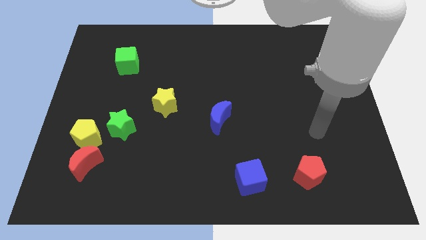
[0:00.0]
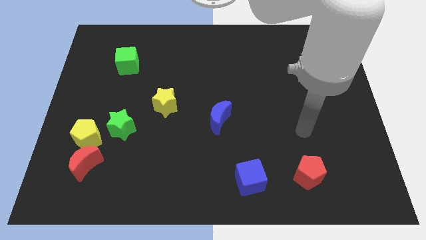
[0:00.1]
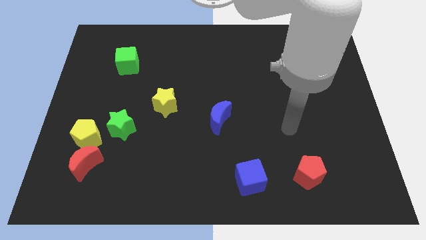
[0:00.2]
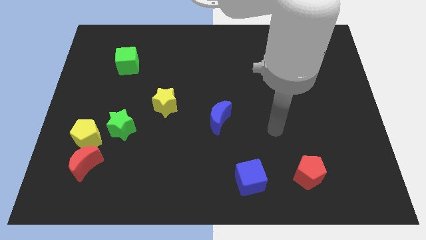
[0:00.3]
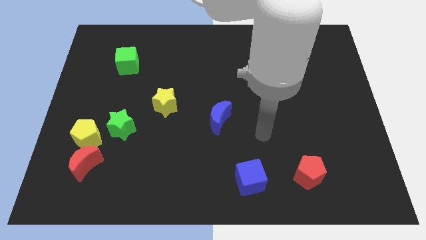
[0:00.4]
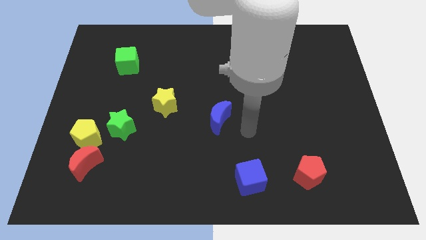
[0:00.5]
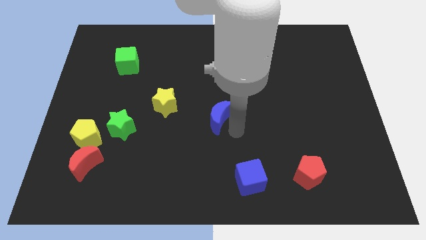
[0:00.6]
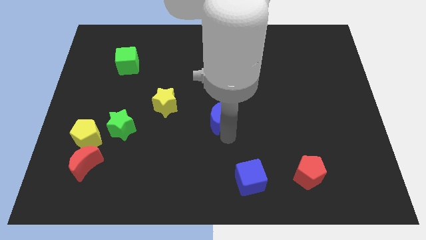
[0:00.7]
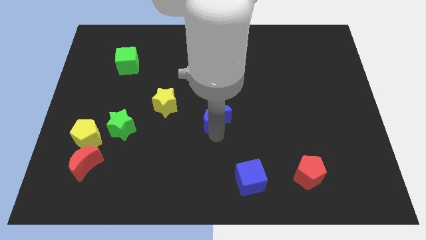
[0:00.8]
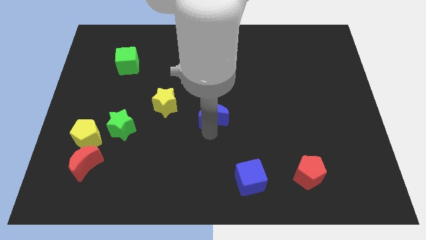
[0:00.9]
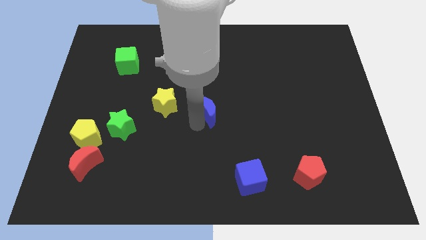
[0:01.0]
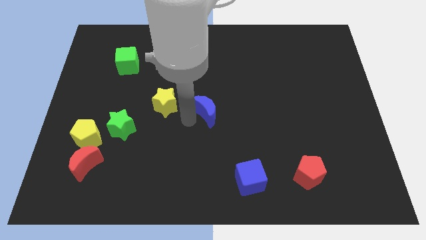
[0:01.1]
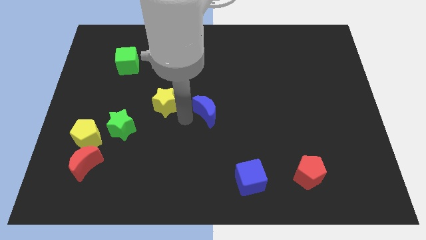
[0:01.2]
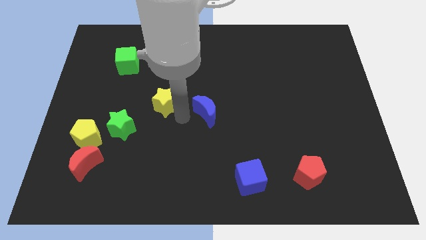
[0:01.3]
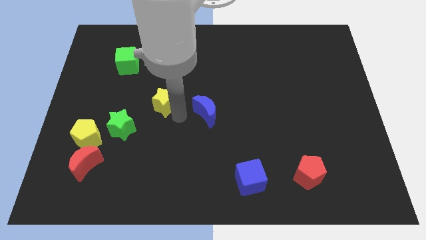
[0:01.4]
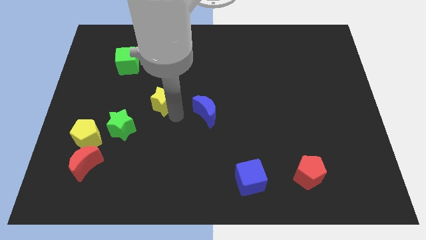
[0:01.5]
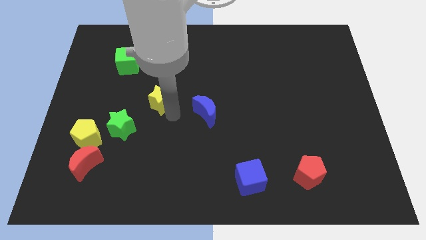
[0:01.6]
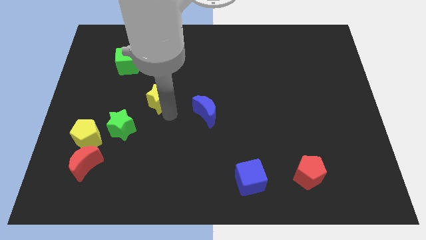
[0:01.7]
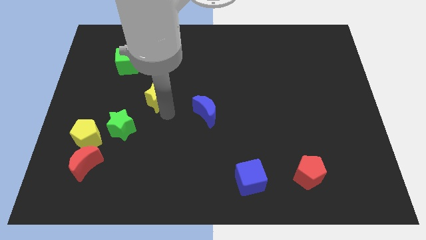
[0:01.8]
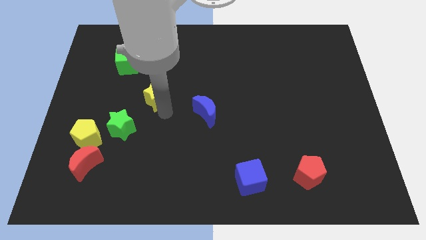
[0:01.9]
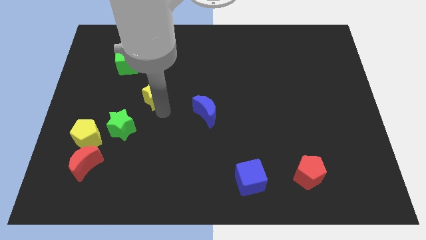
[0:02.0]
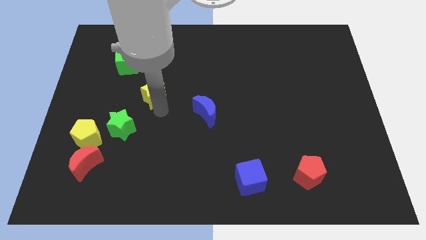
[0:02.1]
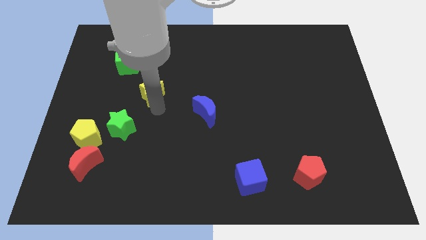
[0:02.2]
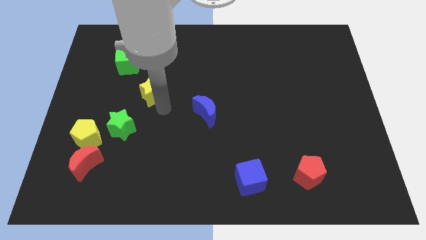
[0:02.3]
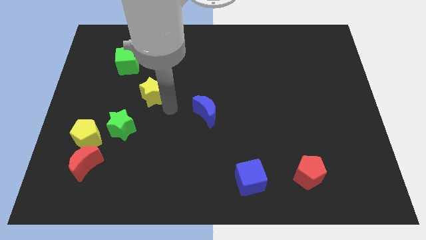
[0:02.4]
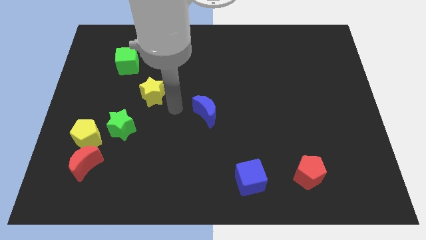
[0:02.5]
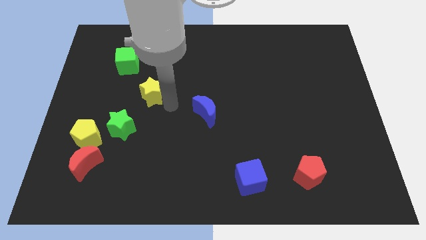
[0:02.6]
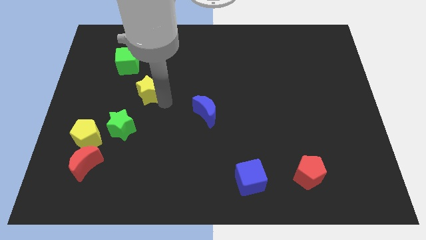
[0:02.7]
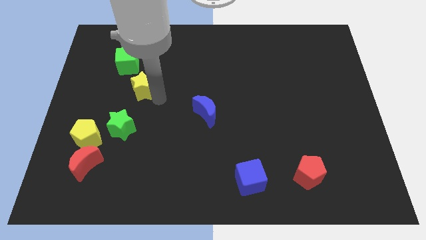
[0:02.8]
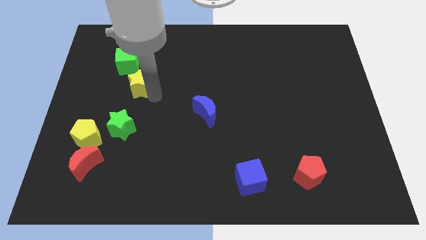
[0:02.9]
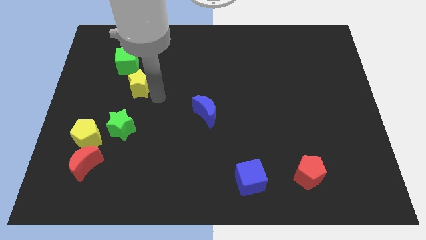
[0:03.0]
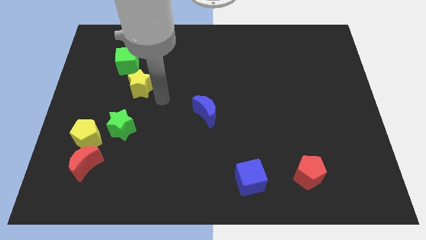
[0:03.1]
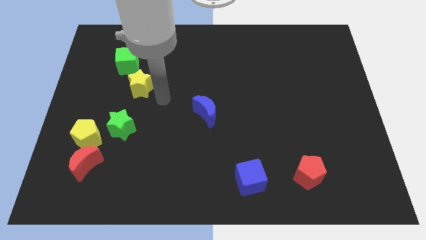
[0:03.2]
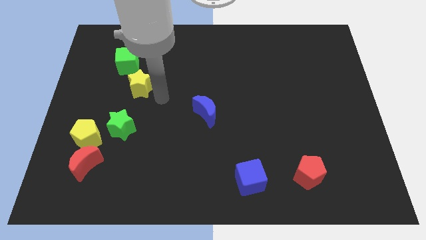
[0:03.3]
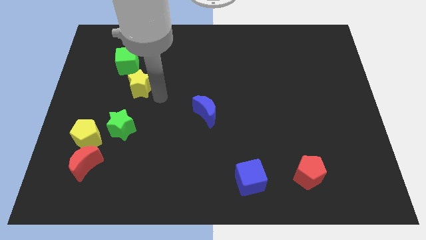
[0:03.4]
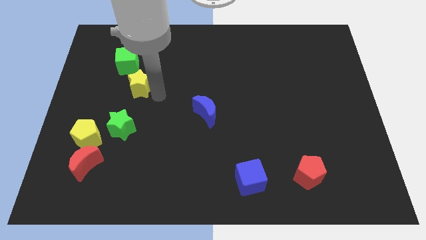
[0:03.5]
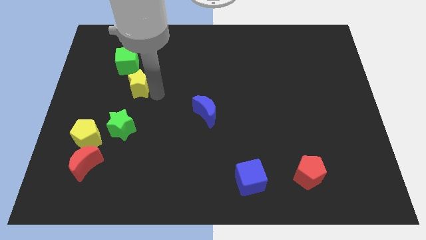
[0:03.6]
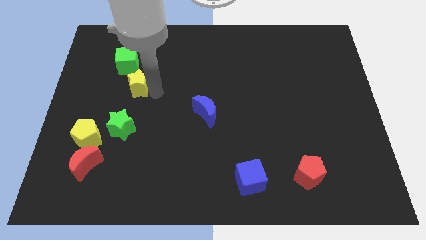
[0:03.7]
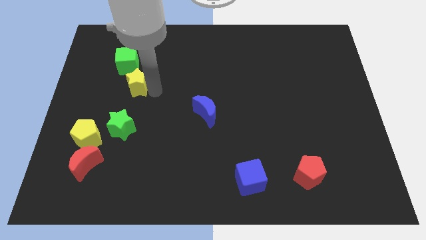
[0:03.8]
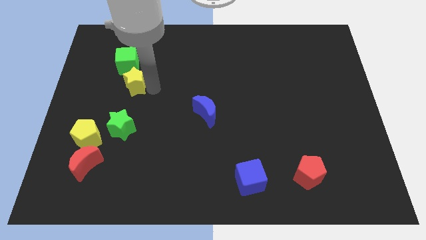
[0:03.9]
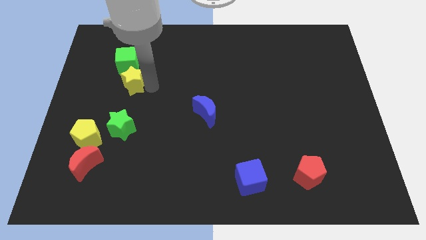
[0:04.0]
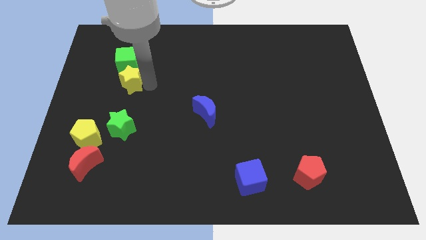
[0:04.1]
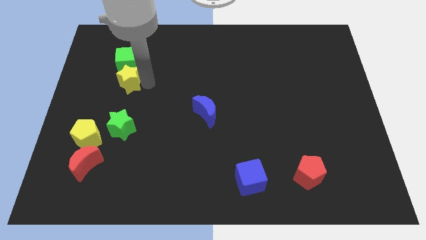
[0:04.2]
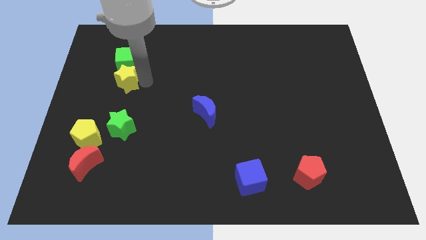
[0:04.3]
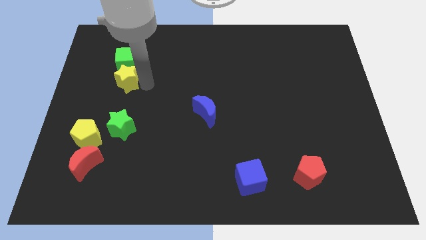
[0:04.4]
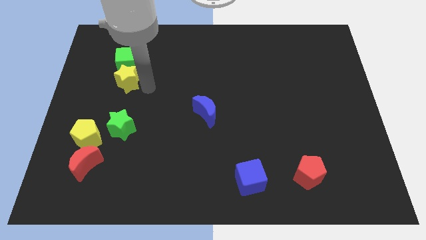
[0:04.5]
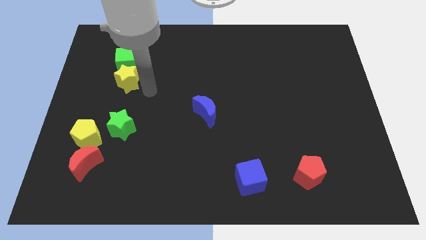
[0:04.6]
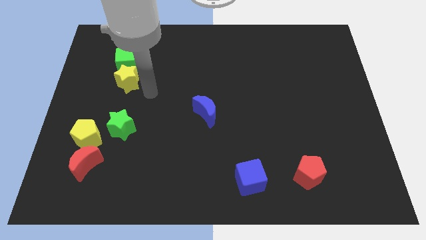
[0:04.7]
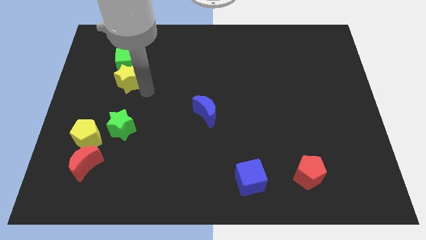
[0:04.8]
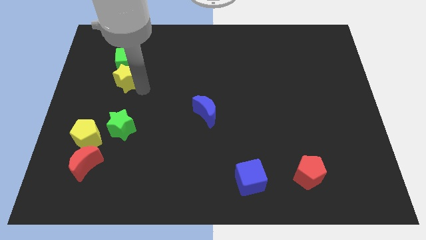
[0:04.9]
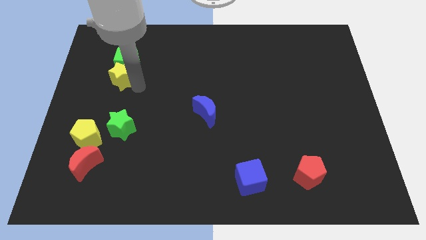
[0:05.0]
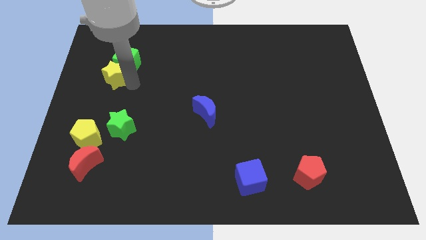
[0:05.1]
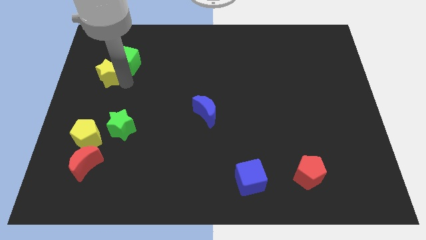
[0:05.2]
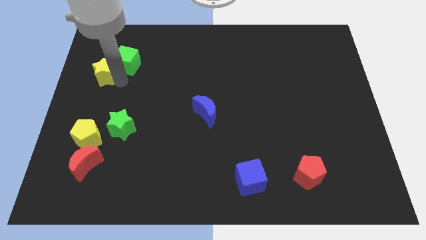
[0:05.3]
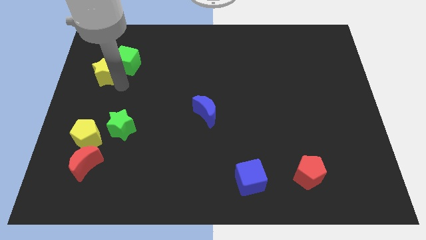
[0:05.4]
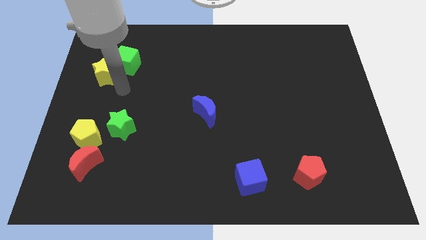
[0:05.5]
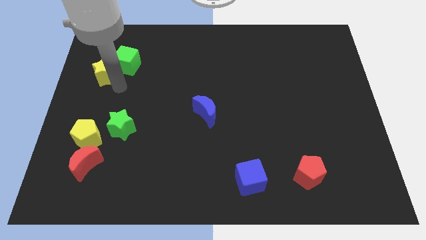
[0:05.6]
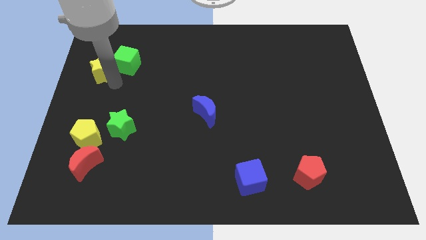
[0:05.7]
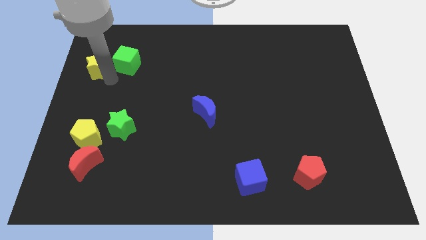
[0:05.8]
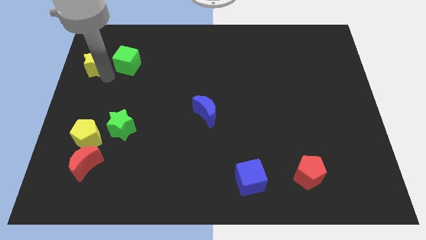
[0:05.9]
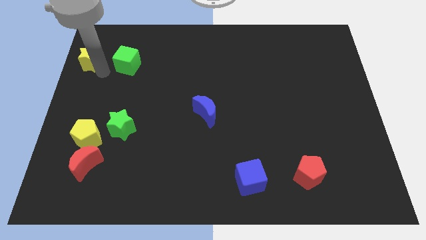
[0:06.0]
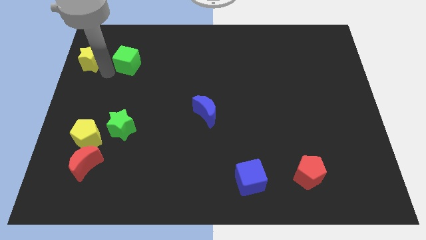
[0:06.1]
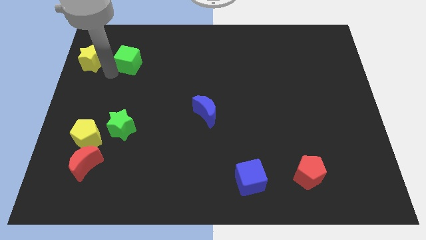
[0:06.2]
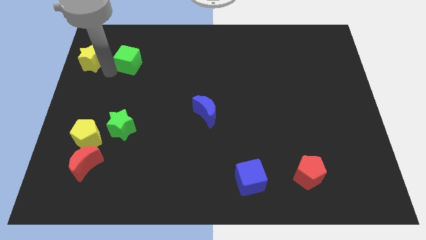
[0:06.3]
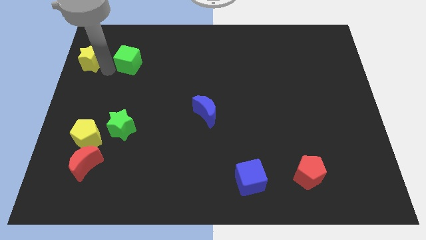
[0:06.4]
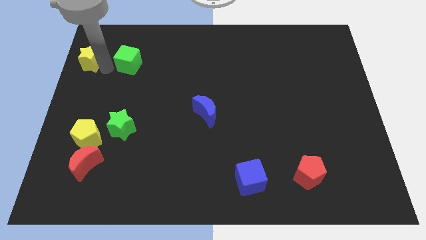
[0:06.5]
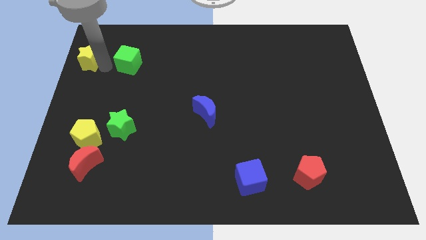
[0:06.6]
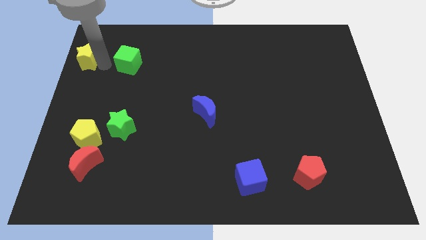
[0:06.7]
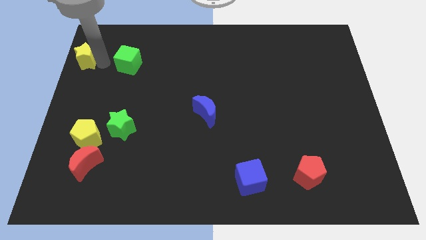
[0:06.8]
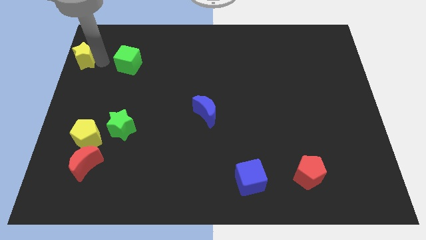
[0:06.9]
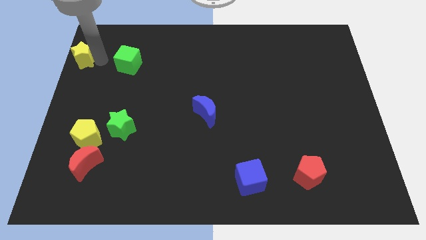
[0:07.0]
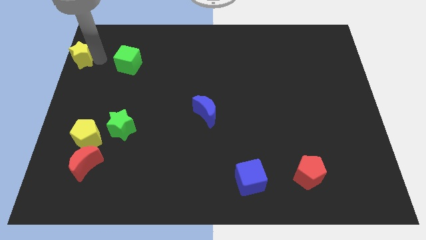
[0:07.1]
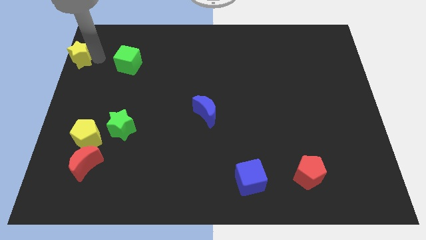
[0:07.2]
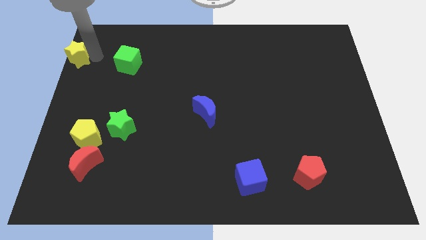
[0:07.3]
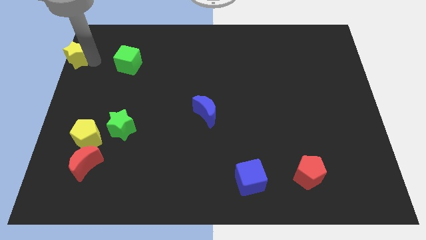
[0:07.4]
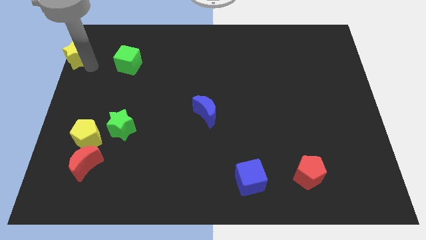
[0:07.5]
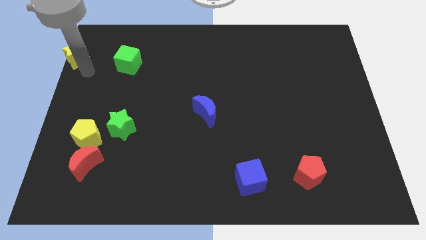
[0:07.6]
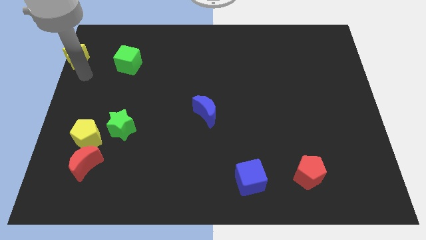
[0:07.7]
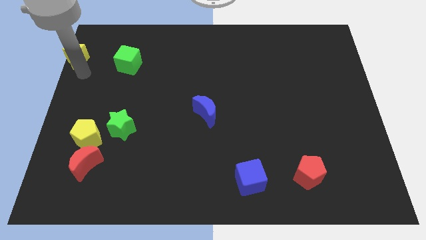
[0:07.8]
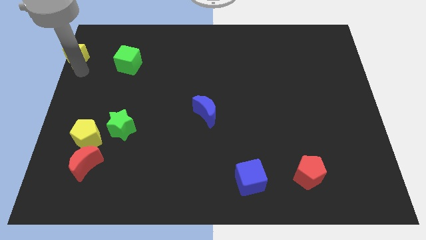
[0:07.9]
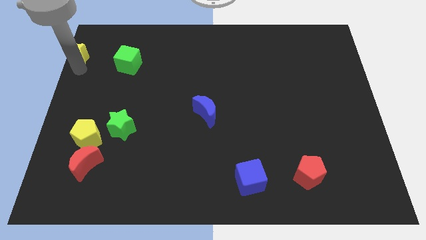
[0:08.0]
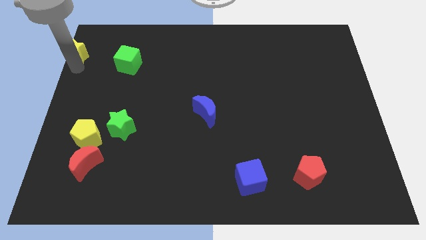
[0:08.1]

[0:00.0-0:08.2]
move the yellow star to the top left of the board

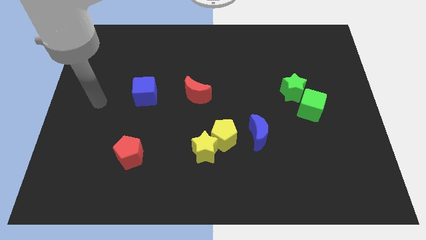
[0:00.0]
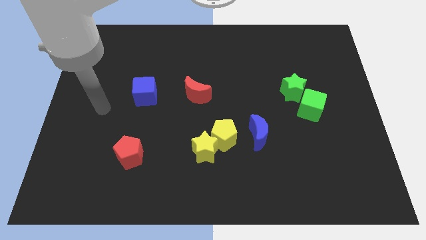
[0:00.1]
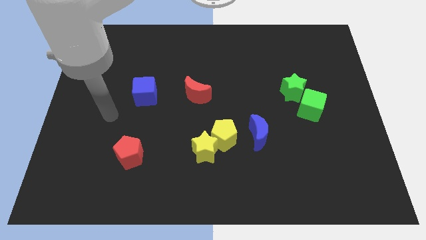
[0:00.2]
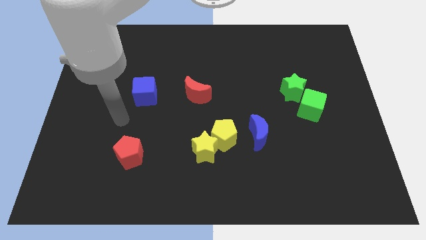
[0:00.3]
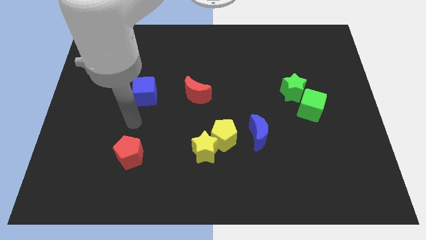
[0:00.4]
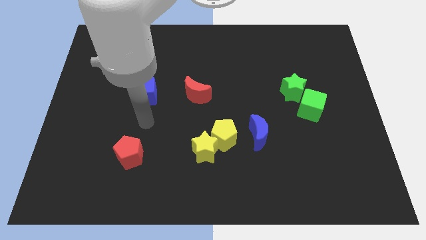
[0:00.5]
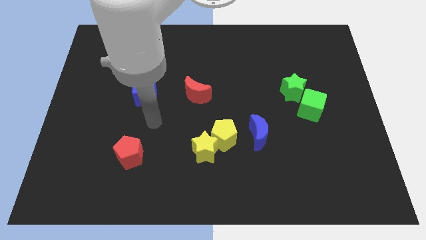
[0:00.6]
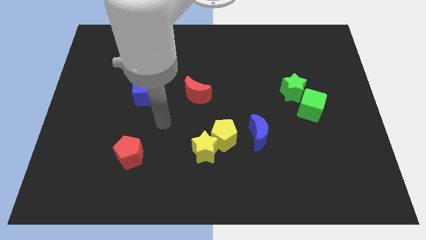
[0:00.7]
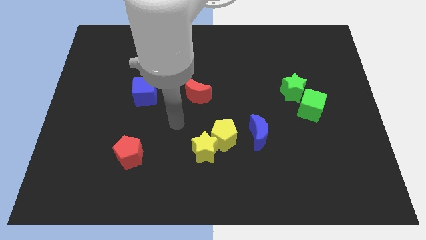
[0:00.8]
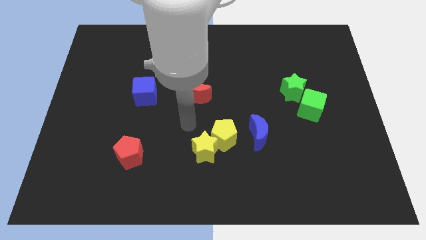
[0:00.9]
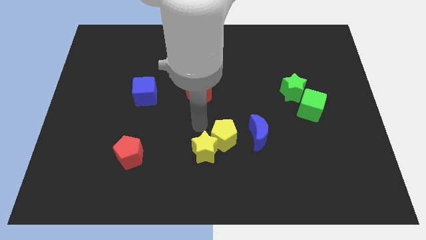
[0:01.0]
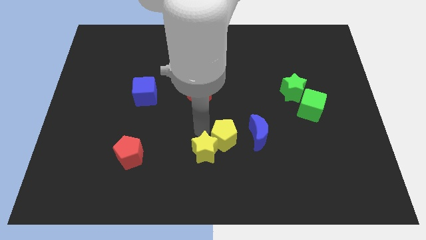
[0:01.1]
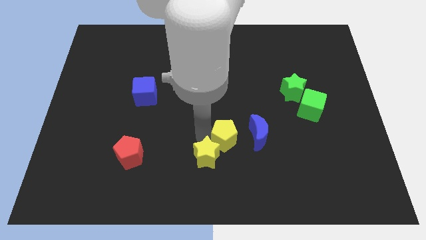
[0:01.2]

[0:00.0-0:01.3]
slide the yellow star to the bottom
